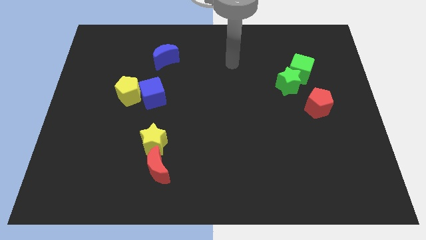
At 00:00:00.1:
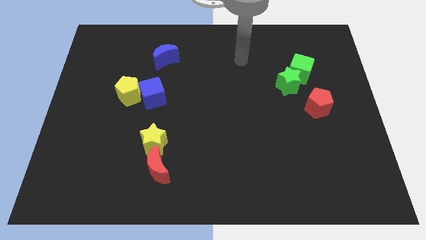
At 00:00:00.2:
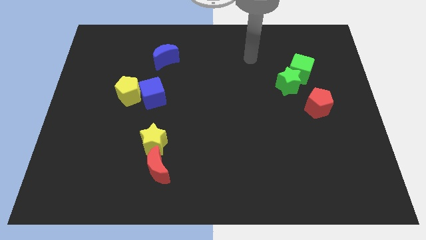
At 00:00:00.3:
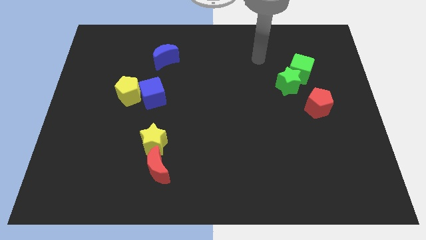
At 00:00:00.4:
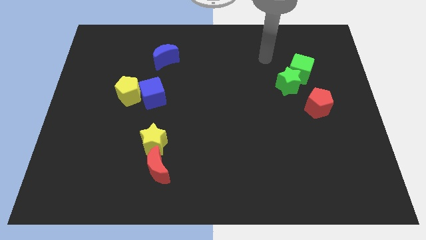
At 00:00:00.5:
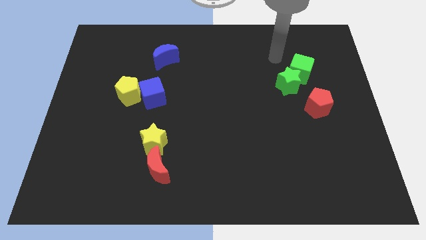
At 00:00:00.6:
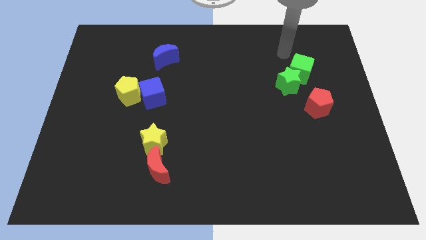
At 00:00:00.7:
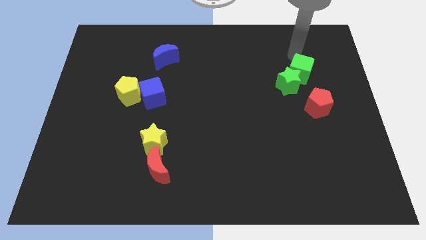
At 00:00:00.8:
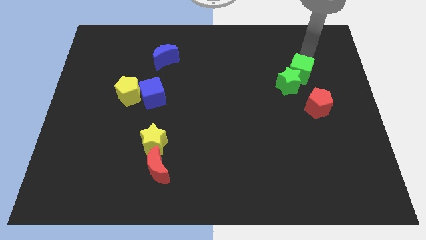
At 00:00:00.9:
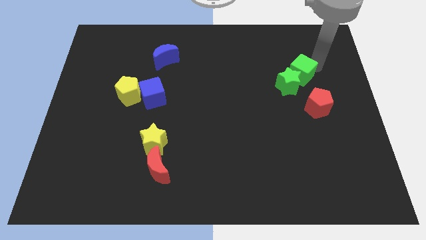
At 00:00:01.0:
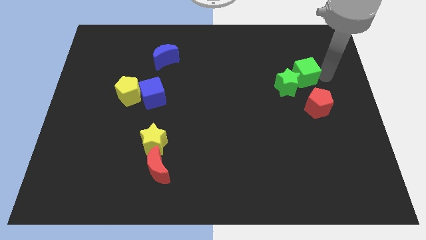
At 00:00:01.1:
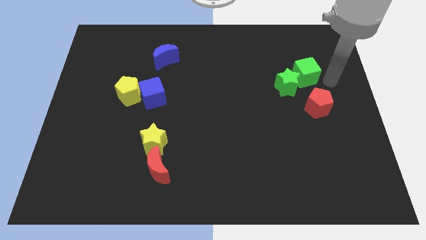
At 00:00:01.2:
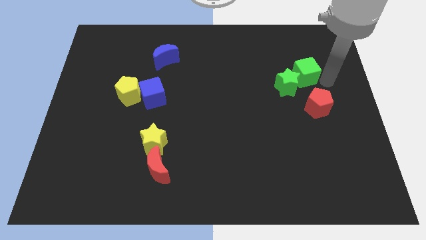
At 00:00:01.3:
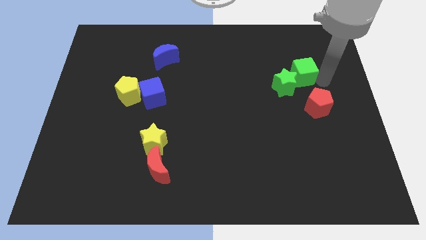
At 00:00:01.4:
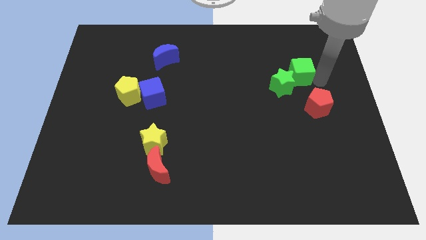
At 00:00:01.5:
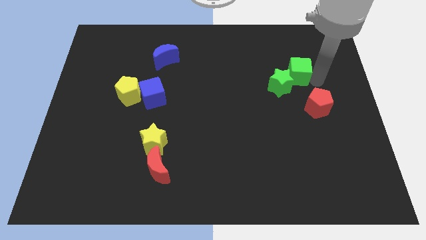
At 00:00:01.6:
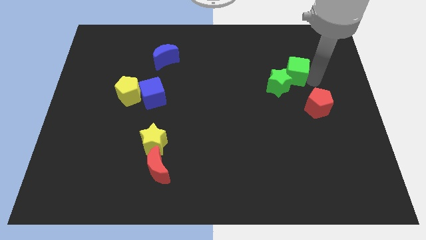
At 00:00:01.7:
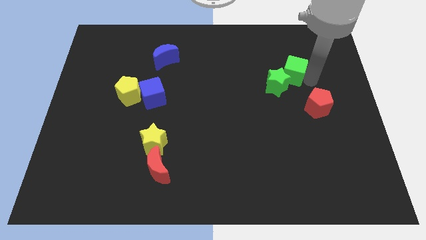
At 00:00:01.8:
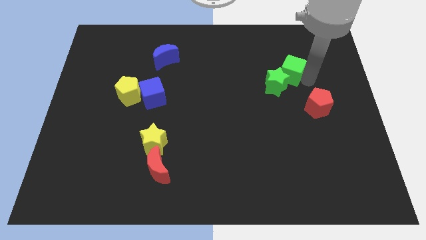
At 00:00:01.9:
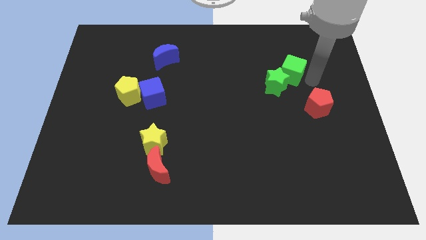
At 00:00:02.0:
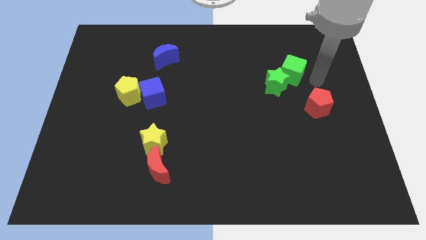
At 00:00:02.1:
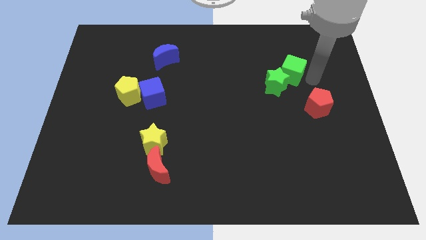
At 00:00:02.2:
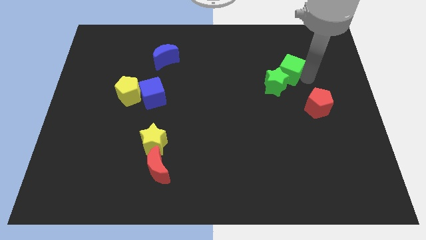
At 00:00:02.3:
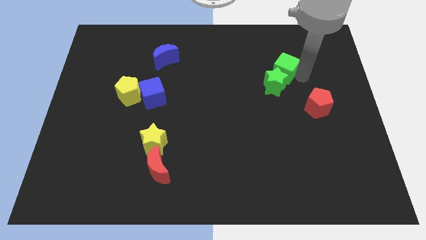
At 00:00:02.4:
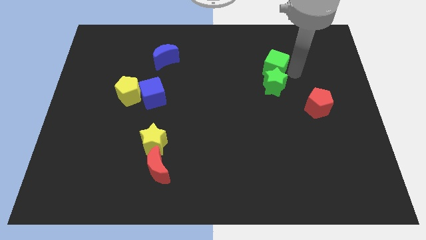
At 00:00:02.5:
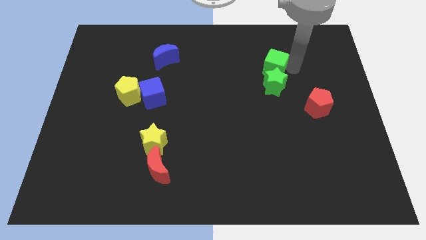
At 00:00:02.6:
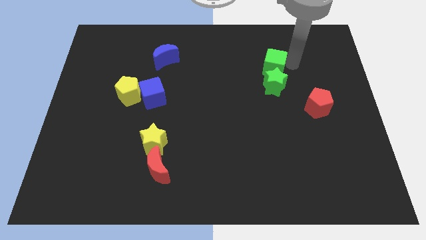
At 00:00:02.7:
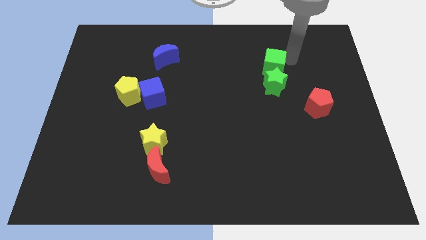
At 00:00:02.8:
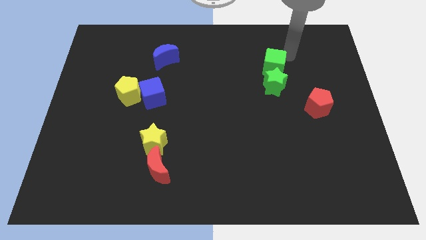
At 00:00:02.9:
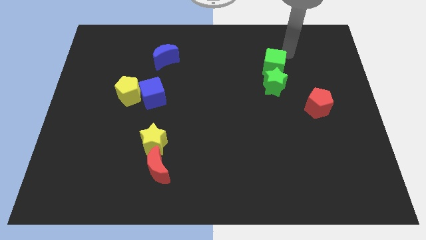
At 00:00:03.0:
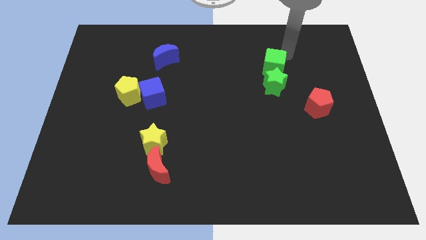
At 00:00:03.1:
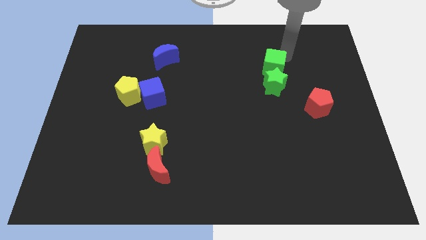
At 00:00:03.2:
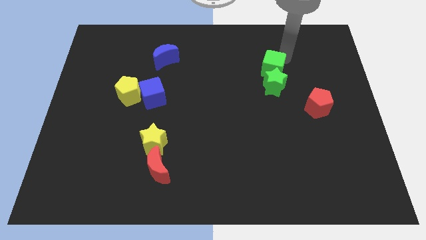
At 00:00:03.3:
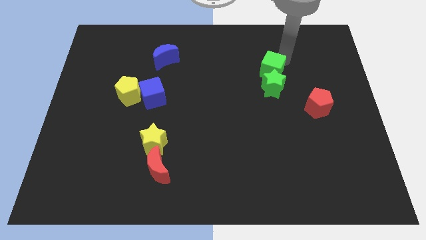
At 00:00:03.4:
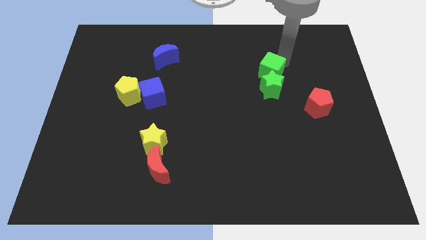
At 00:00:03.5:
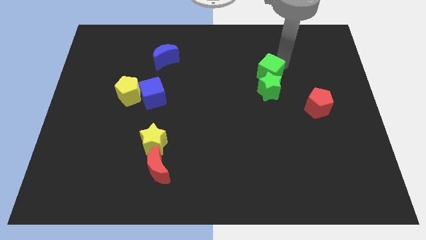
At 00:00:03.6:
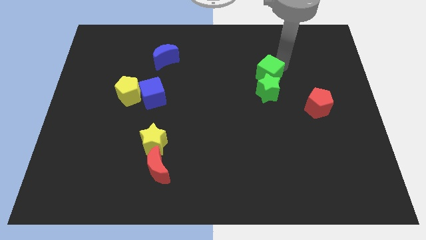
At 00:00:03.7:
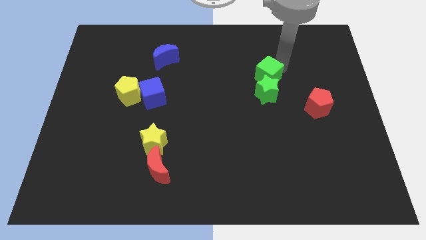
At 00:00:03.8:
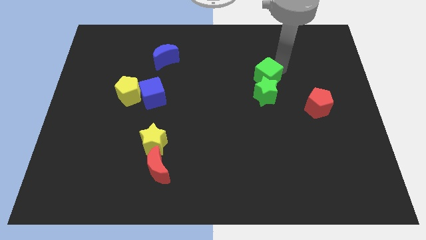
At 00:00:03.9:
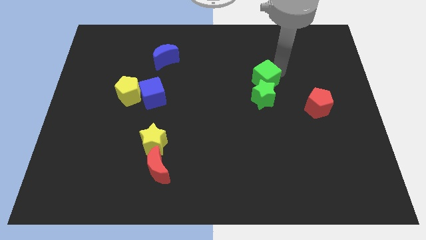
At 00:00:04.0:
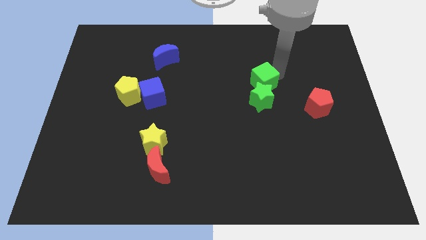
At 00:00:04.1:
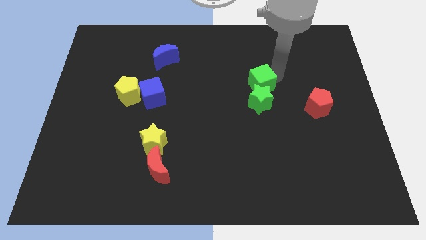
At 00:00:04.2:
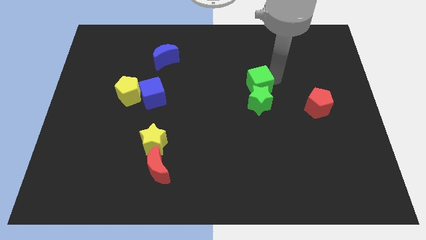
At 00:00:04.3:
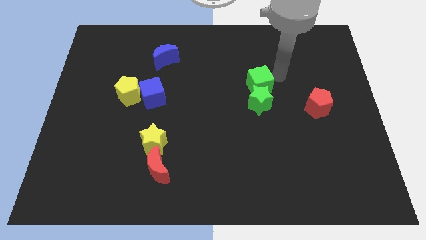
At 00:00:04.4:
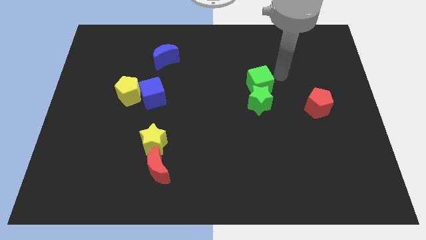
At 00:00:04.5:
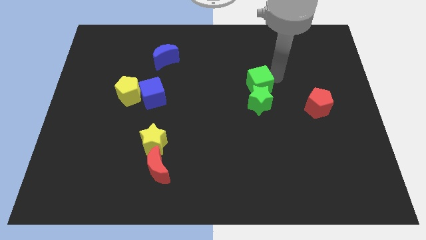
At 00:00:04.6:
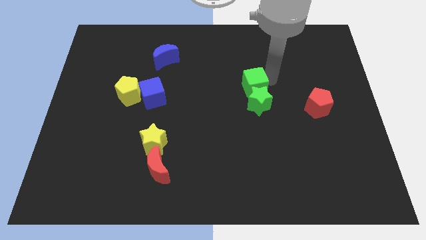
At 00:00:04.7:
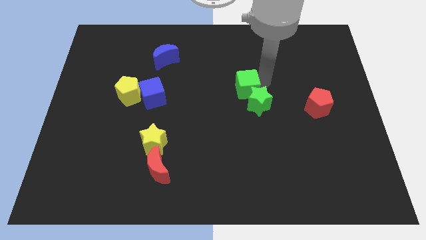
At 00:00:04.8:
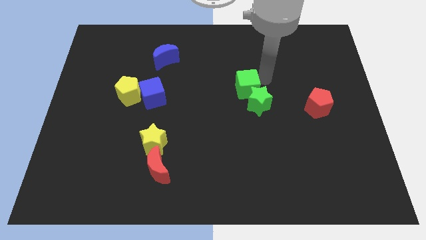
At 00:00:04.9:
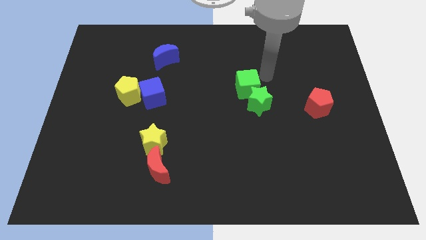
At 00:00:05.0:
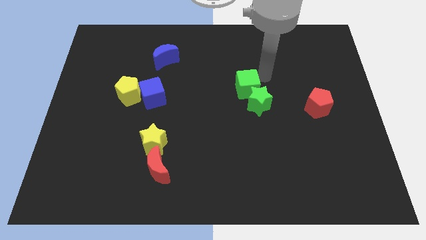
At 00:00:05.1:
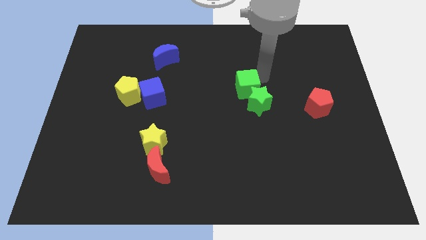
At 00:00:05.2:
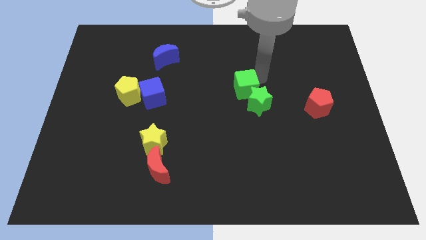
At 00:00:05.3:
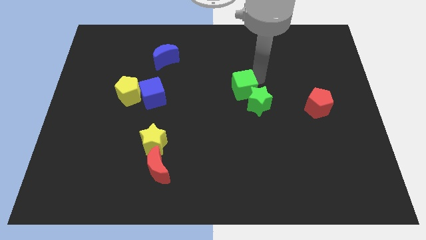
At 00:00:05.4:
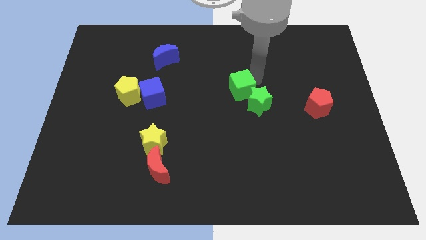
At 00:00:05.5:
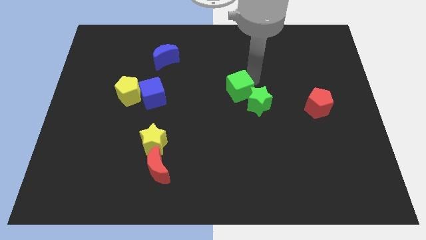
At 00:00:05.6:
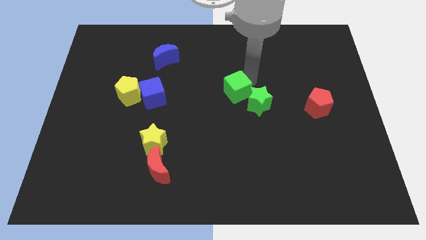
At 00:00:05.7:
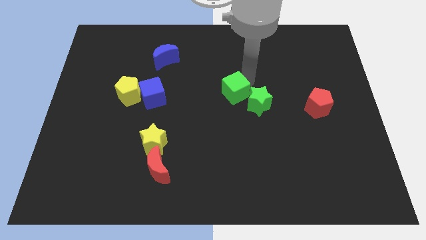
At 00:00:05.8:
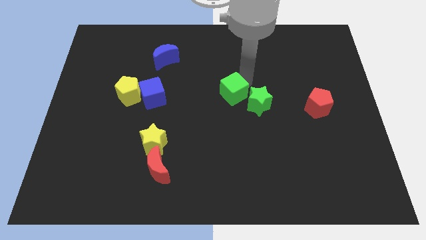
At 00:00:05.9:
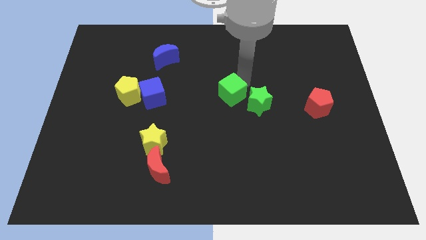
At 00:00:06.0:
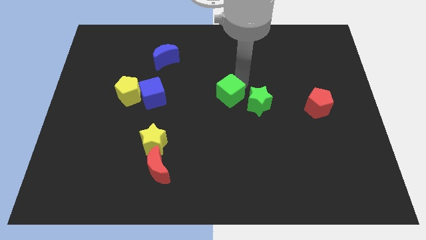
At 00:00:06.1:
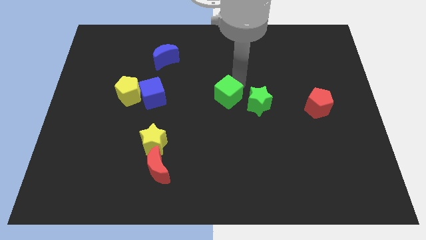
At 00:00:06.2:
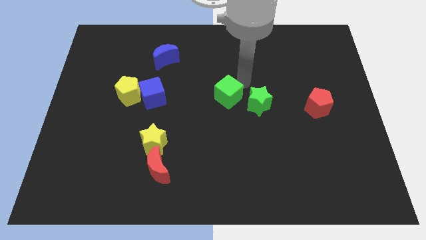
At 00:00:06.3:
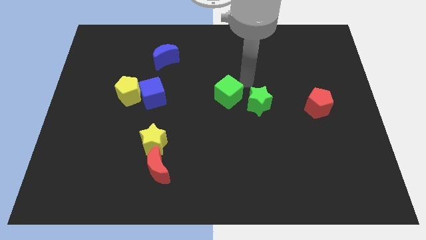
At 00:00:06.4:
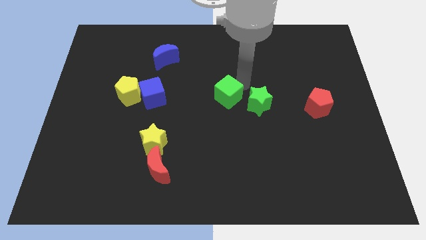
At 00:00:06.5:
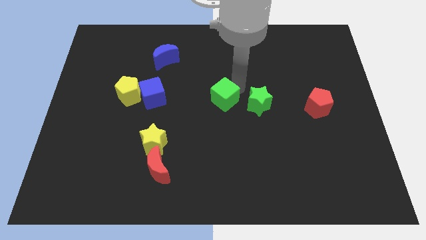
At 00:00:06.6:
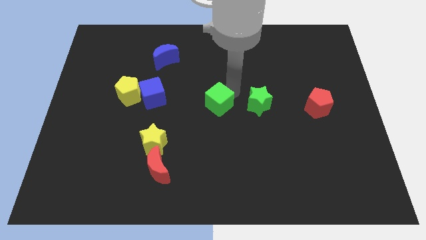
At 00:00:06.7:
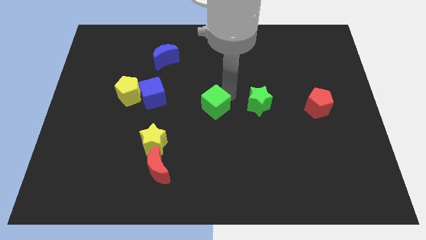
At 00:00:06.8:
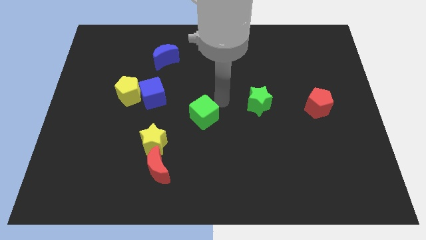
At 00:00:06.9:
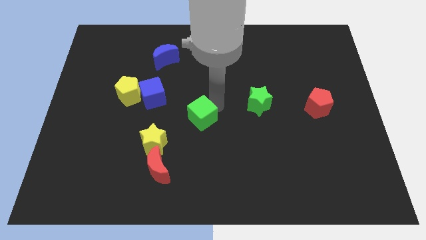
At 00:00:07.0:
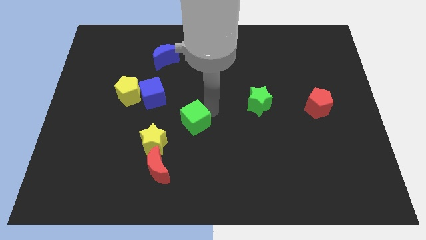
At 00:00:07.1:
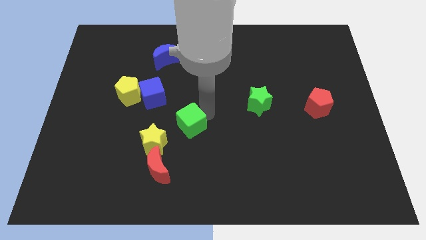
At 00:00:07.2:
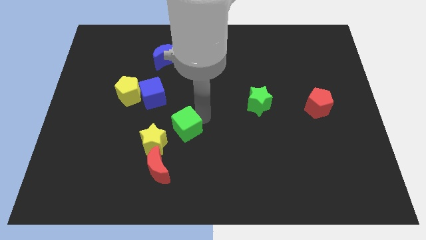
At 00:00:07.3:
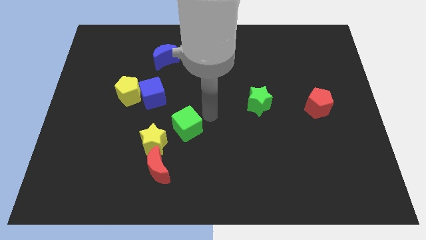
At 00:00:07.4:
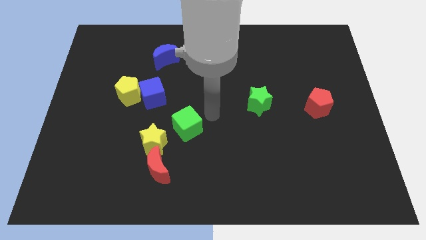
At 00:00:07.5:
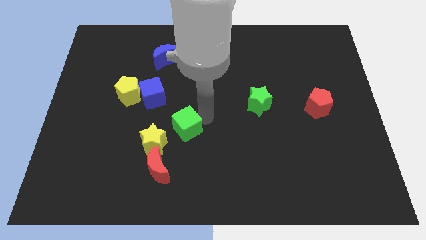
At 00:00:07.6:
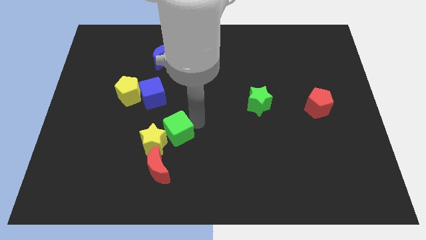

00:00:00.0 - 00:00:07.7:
push the green cube to the yellow star
